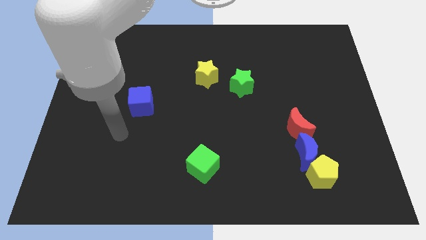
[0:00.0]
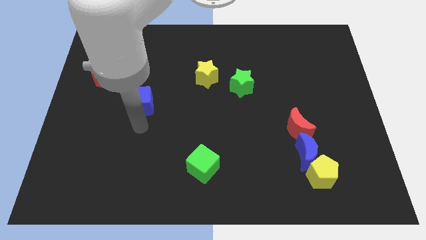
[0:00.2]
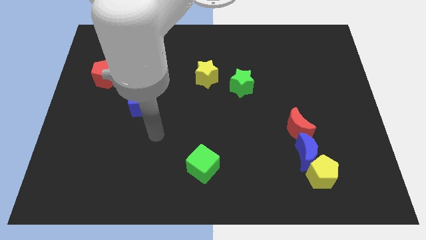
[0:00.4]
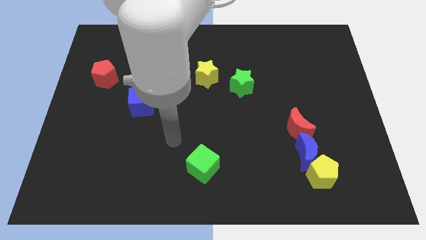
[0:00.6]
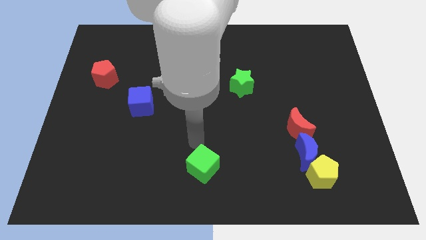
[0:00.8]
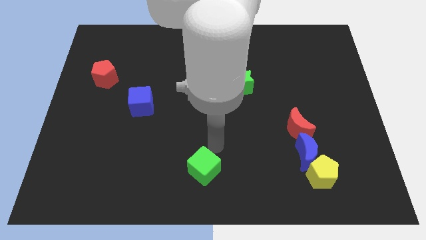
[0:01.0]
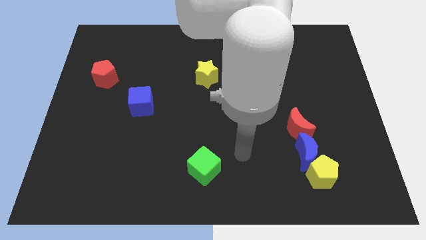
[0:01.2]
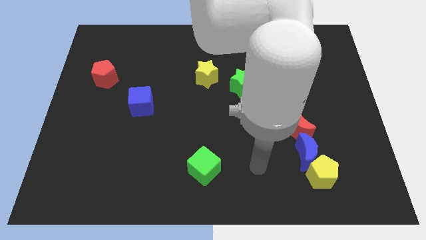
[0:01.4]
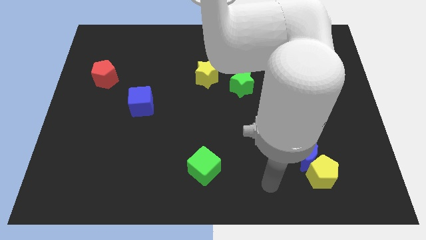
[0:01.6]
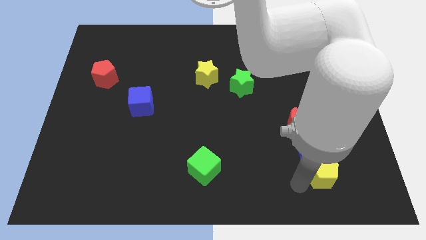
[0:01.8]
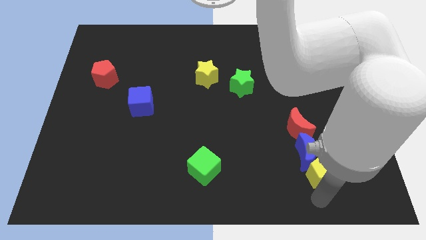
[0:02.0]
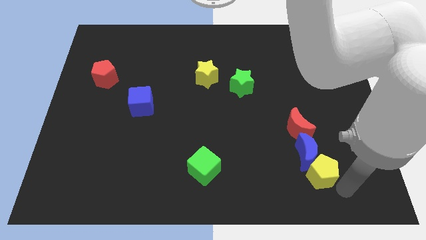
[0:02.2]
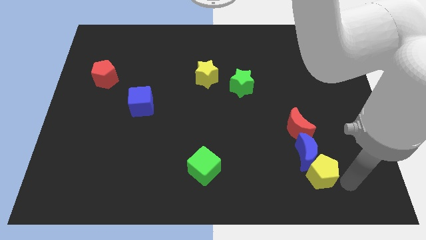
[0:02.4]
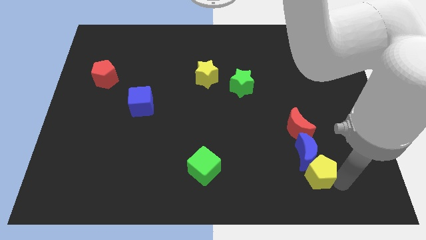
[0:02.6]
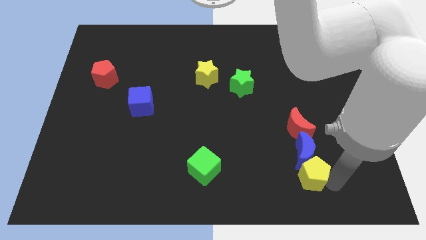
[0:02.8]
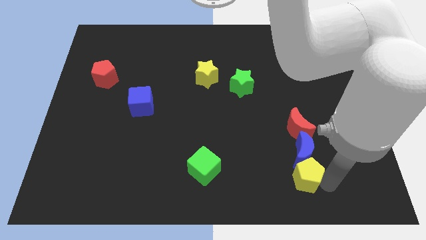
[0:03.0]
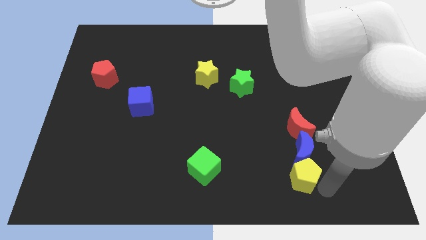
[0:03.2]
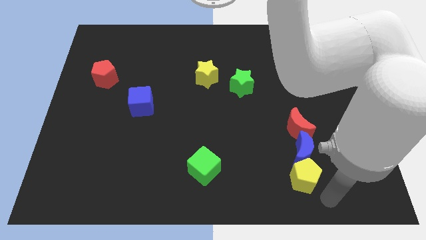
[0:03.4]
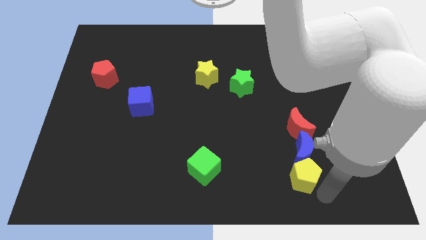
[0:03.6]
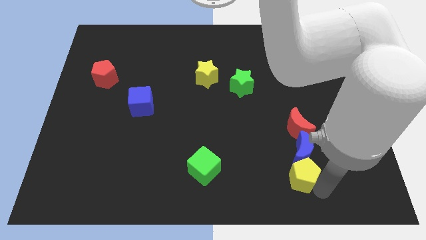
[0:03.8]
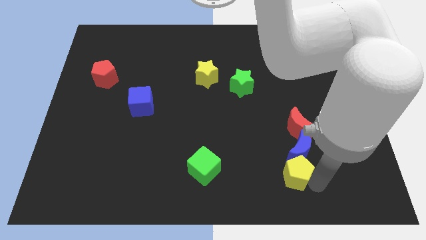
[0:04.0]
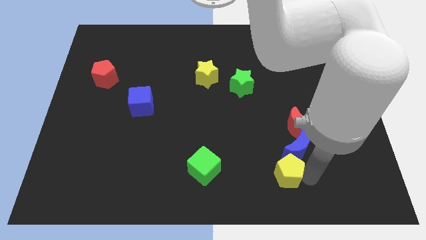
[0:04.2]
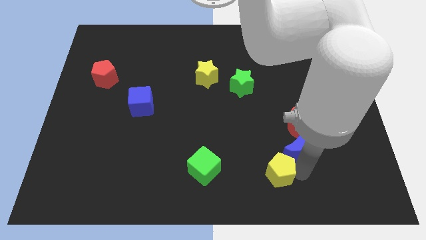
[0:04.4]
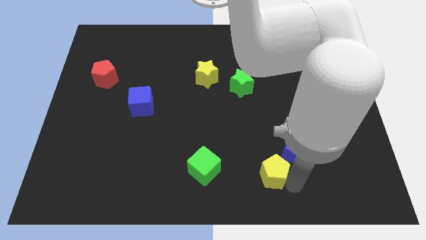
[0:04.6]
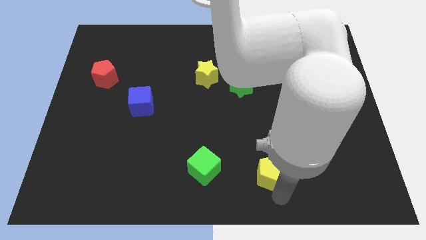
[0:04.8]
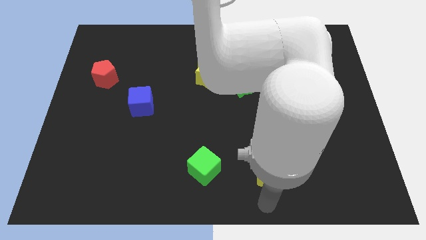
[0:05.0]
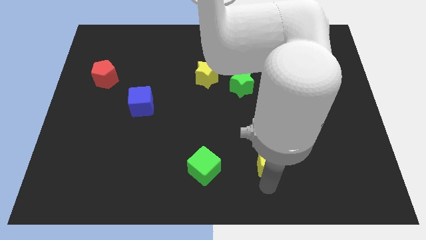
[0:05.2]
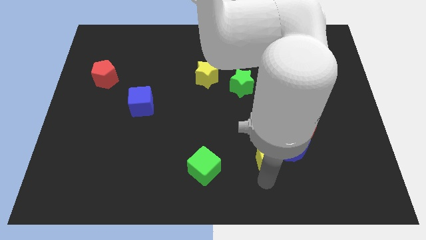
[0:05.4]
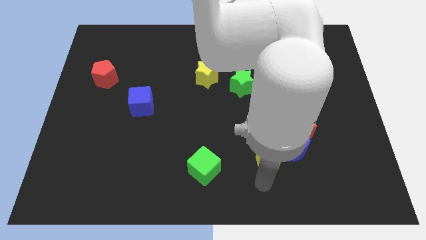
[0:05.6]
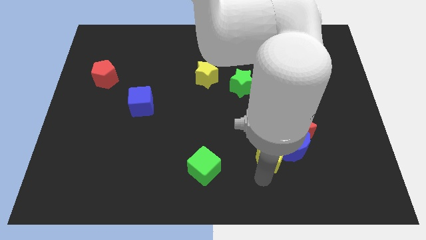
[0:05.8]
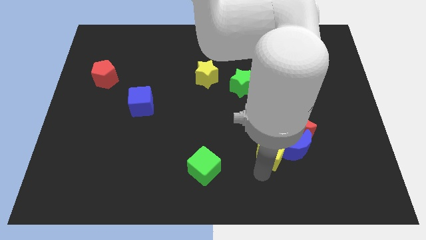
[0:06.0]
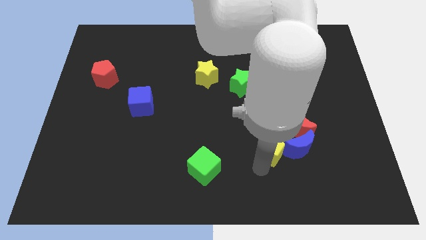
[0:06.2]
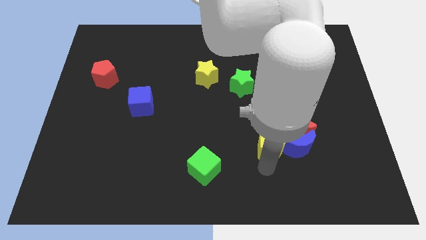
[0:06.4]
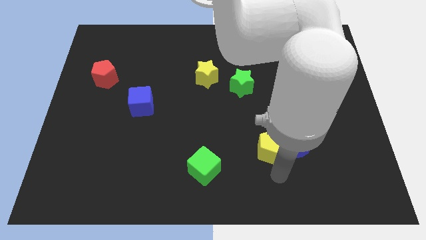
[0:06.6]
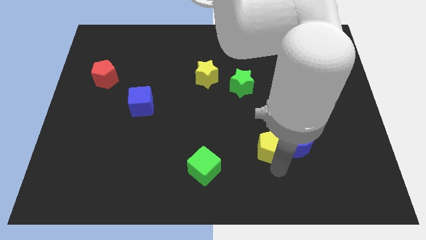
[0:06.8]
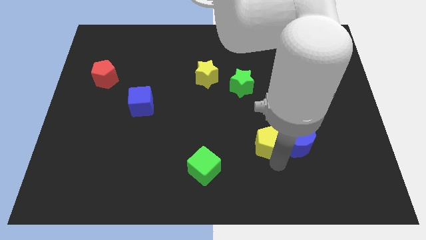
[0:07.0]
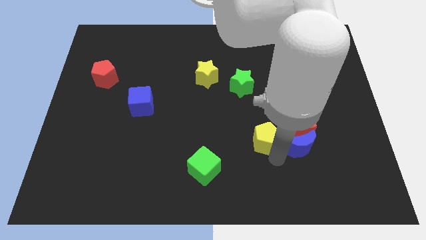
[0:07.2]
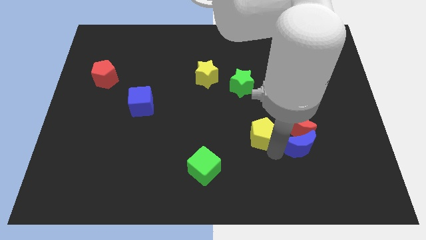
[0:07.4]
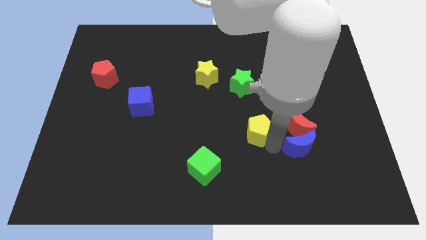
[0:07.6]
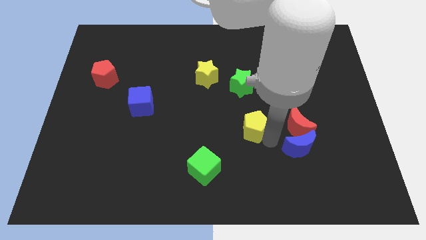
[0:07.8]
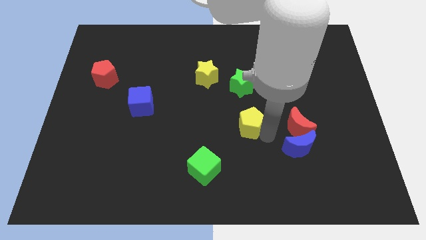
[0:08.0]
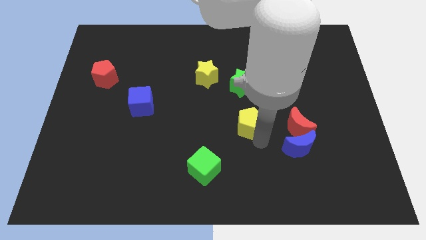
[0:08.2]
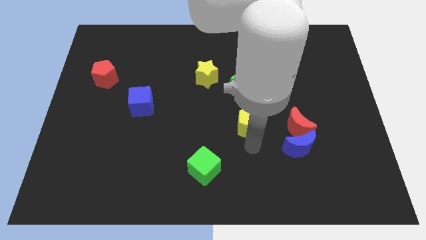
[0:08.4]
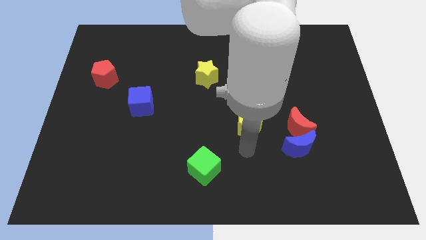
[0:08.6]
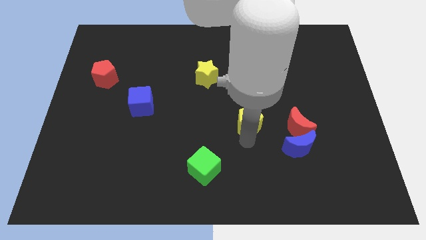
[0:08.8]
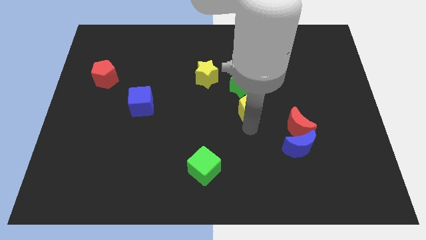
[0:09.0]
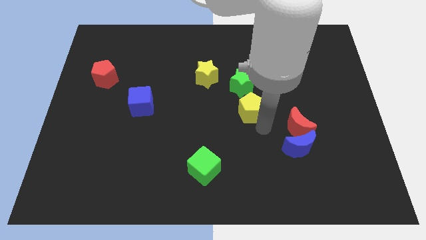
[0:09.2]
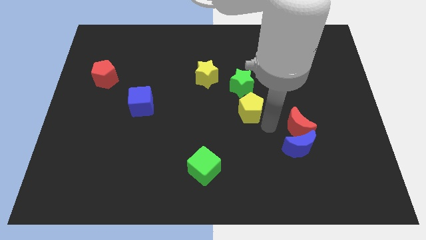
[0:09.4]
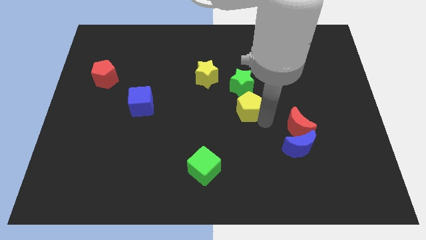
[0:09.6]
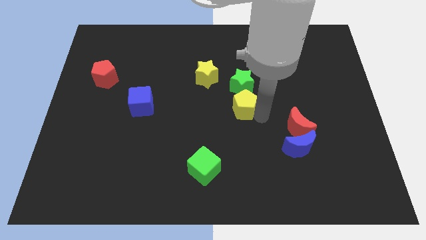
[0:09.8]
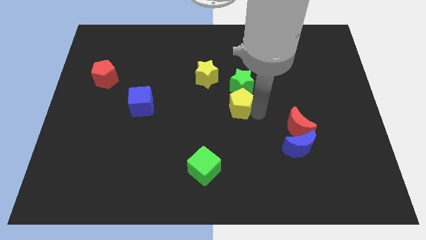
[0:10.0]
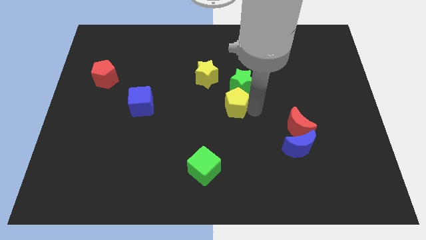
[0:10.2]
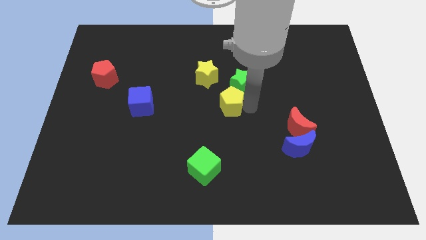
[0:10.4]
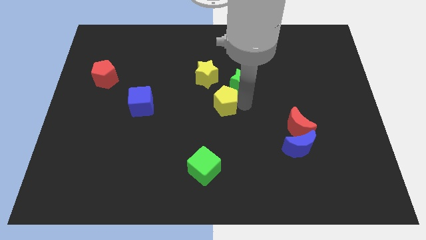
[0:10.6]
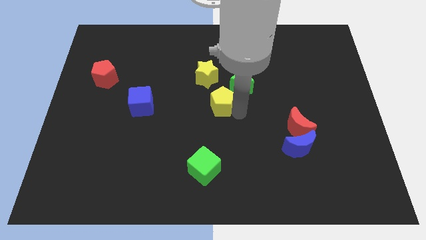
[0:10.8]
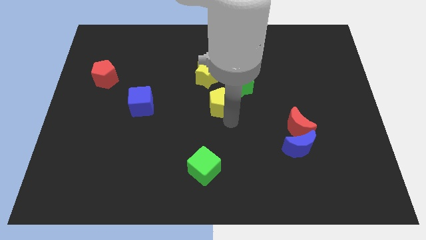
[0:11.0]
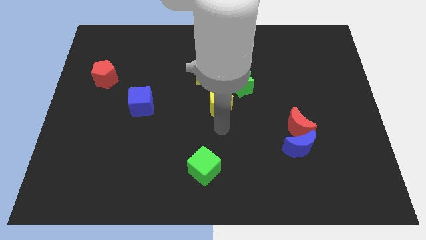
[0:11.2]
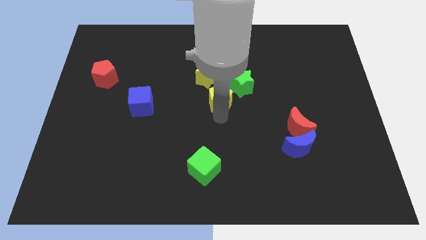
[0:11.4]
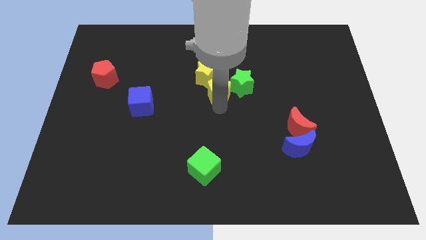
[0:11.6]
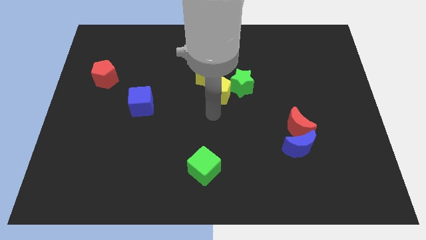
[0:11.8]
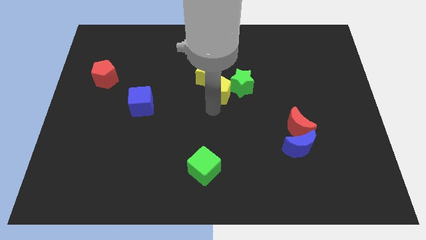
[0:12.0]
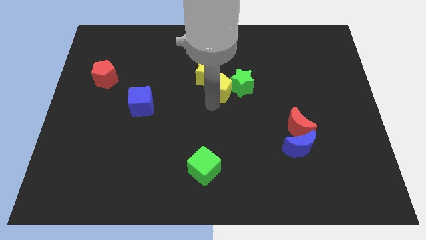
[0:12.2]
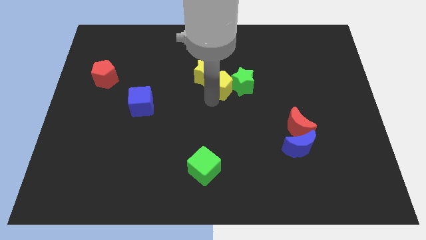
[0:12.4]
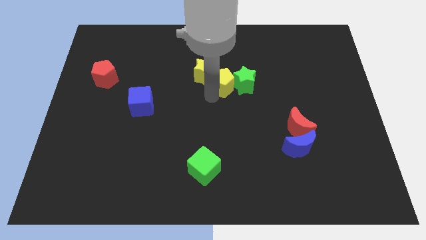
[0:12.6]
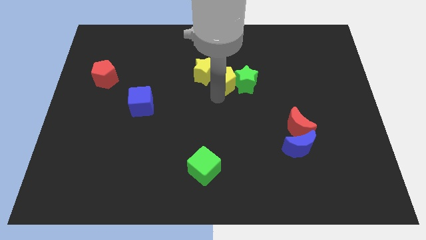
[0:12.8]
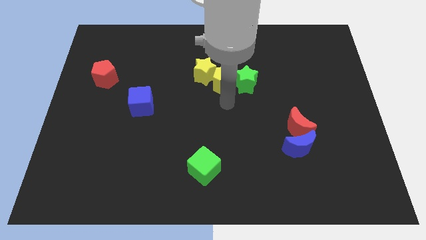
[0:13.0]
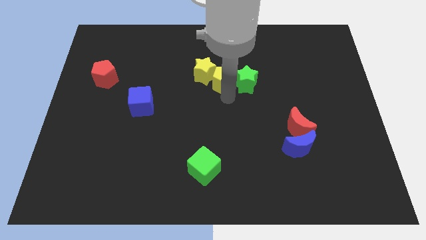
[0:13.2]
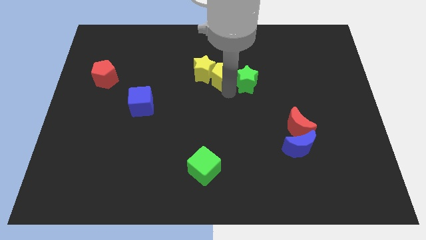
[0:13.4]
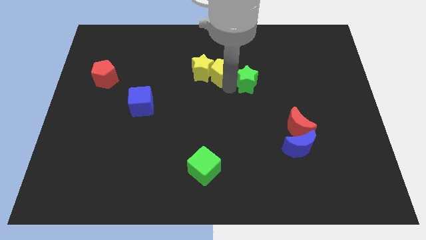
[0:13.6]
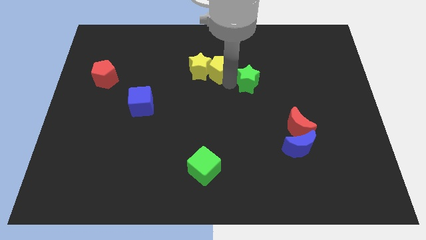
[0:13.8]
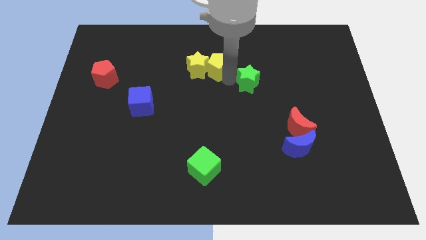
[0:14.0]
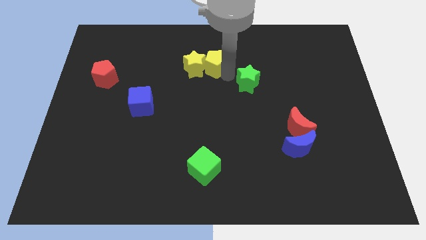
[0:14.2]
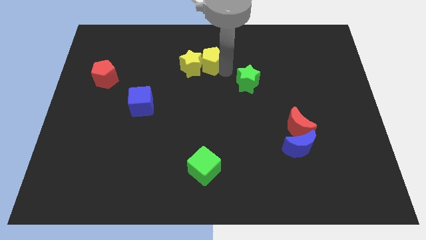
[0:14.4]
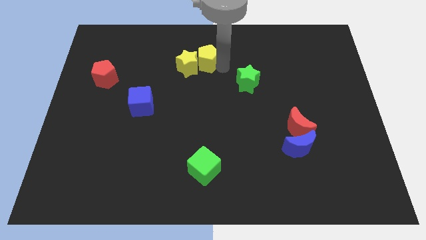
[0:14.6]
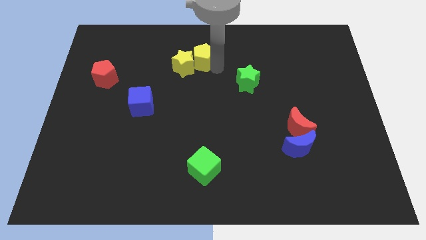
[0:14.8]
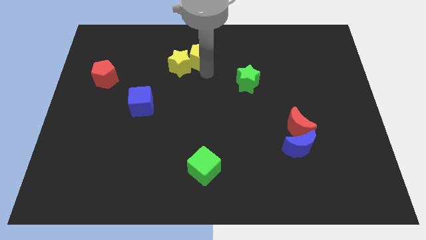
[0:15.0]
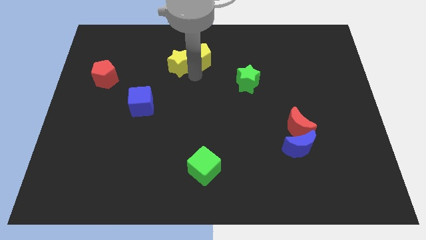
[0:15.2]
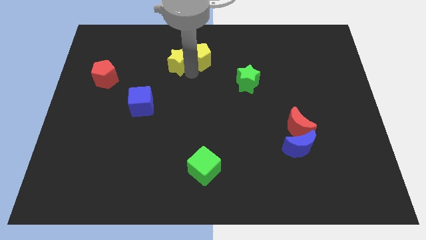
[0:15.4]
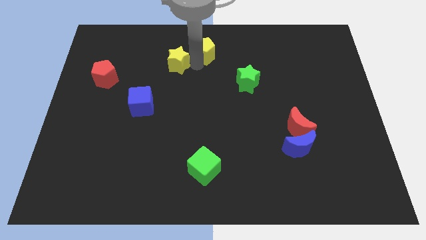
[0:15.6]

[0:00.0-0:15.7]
slide the yellow pentagon to the top side
